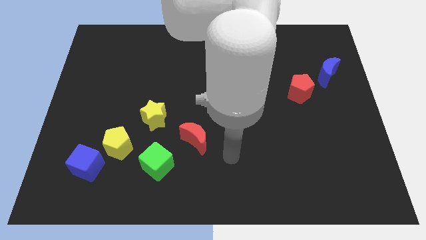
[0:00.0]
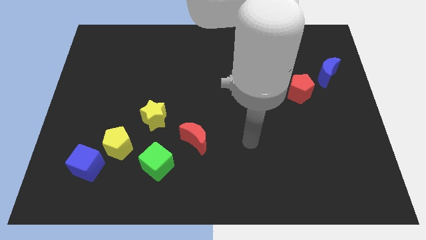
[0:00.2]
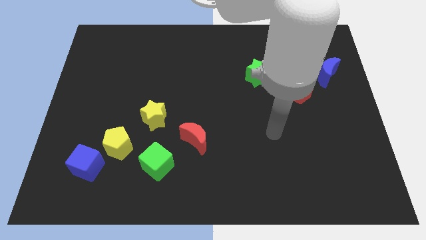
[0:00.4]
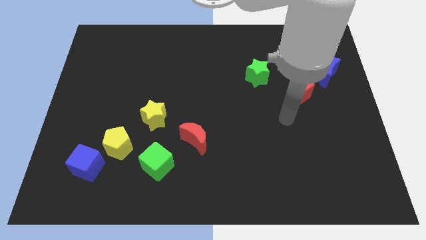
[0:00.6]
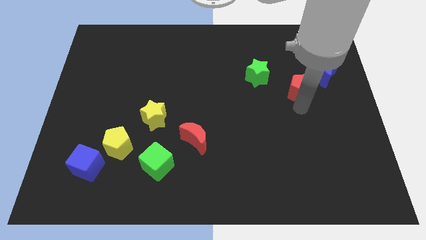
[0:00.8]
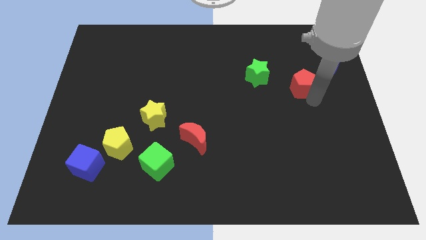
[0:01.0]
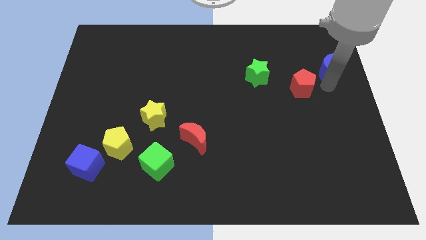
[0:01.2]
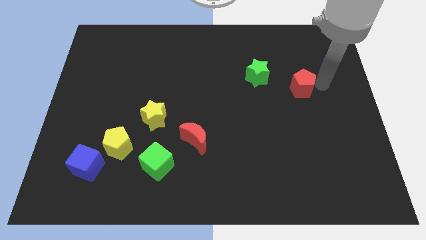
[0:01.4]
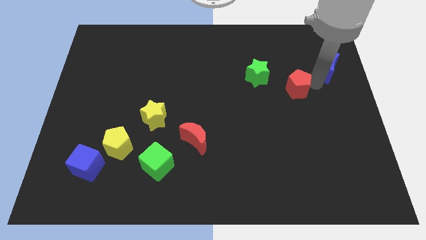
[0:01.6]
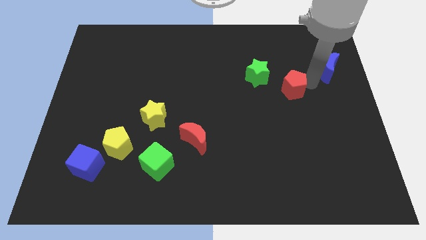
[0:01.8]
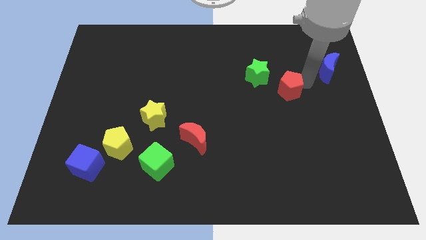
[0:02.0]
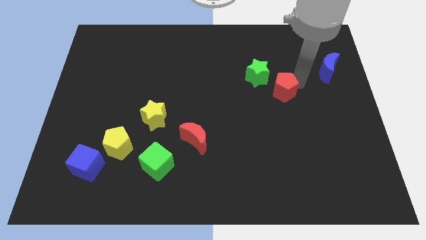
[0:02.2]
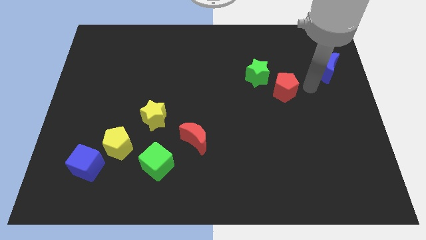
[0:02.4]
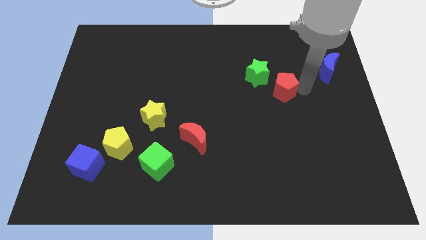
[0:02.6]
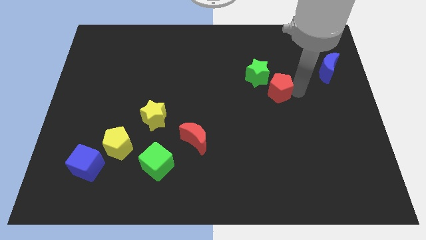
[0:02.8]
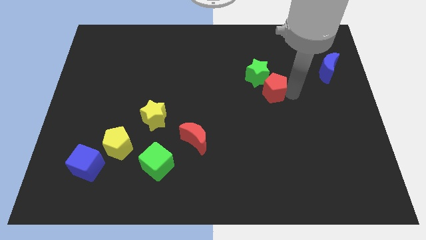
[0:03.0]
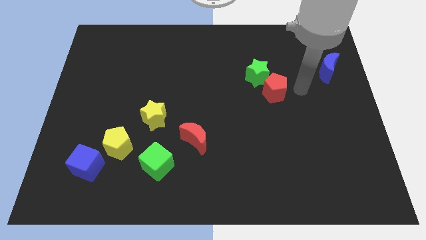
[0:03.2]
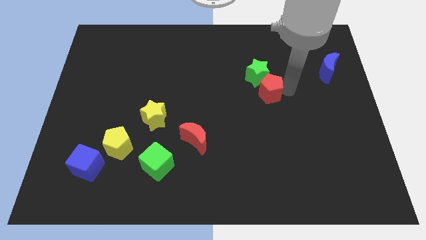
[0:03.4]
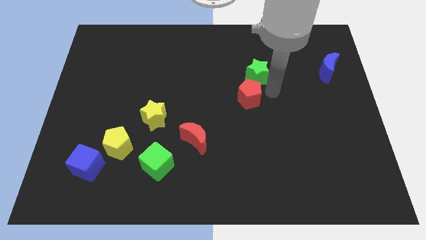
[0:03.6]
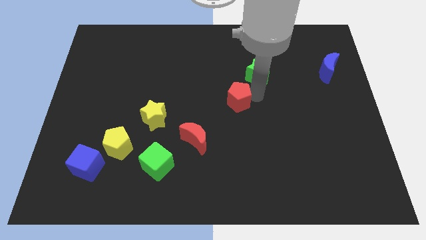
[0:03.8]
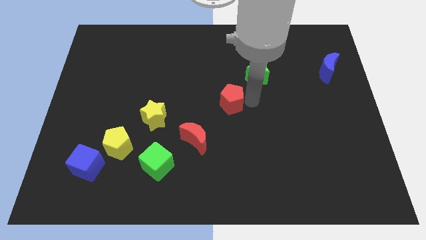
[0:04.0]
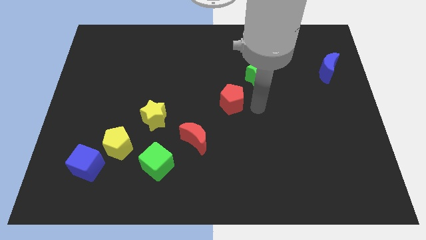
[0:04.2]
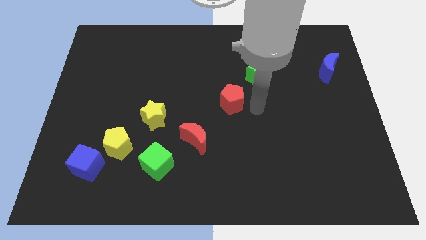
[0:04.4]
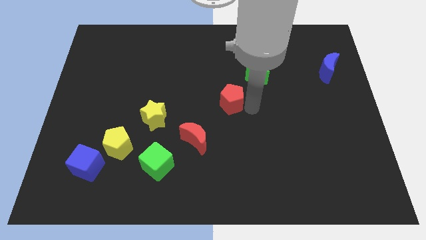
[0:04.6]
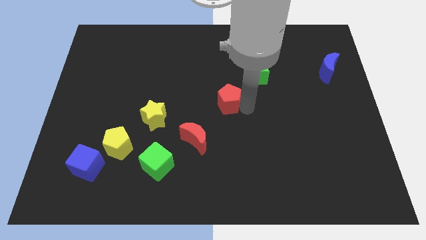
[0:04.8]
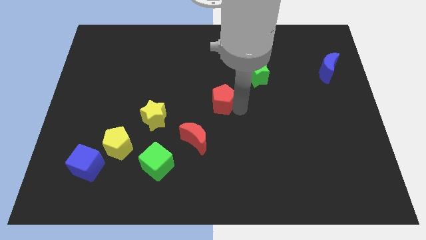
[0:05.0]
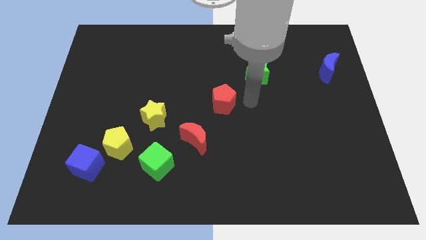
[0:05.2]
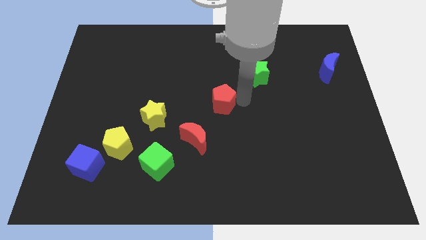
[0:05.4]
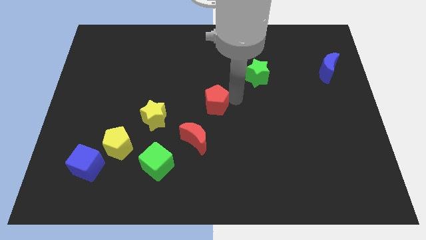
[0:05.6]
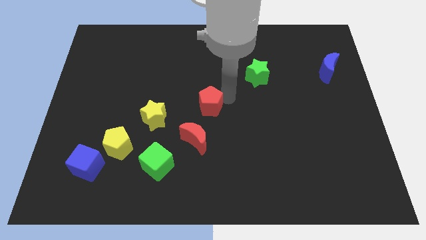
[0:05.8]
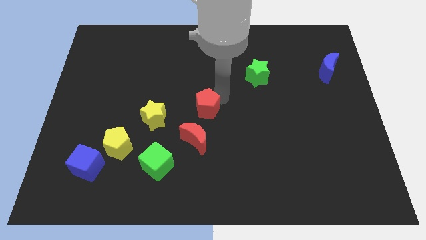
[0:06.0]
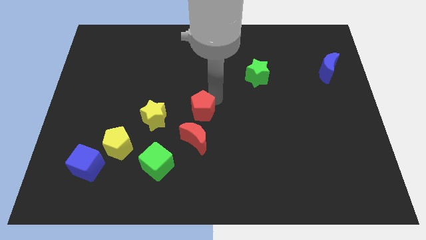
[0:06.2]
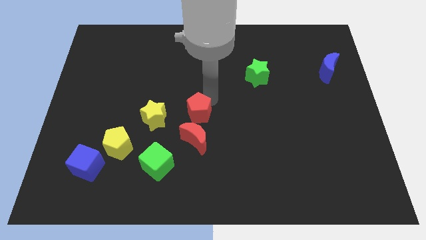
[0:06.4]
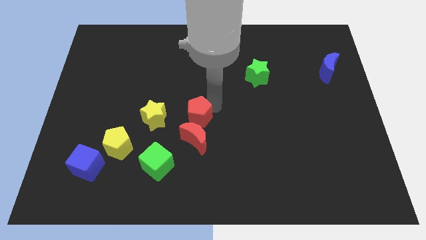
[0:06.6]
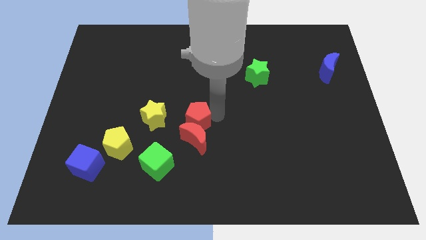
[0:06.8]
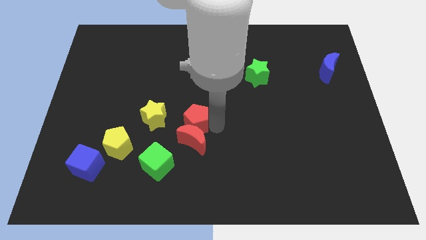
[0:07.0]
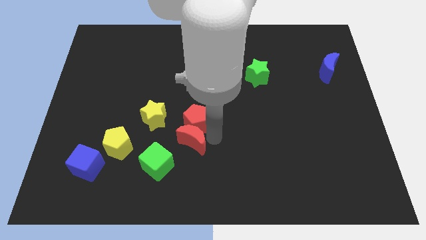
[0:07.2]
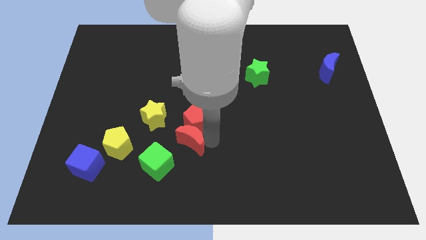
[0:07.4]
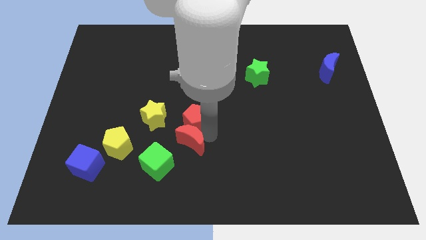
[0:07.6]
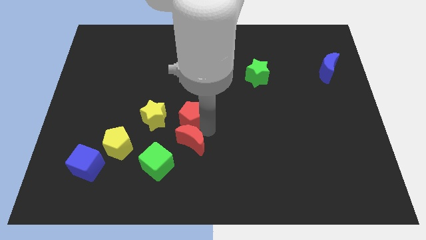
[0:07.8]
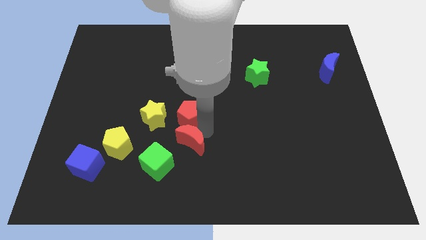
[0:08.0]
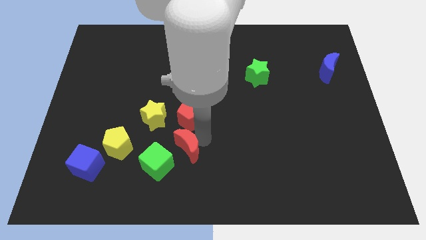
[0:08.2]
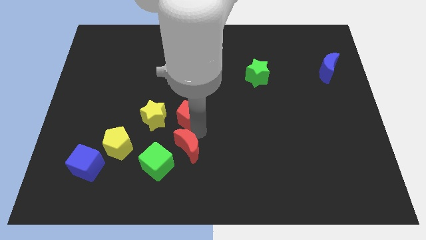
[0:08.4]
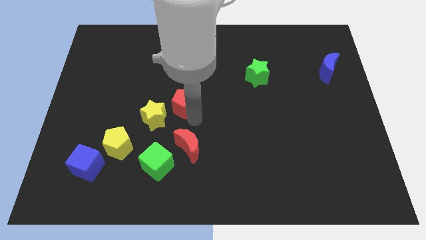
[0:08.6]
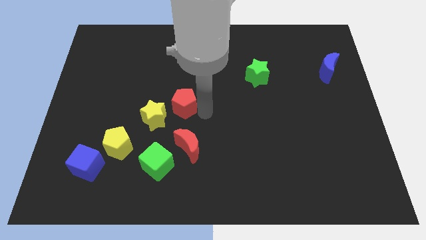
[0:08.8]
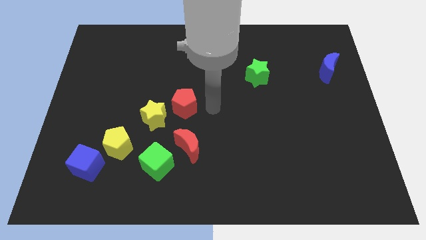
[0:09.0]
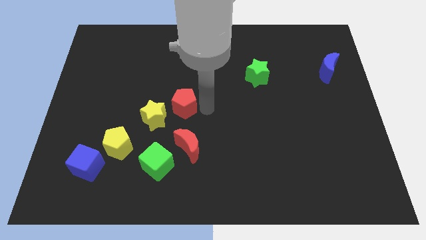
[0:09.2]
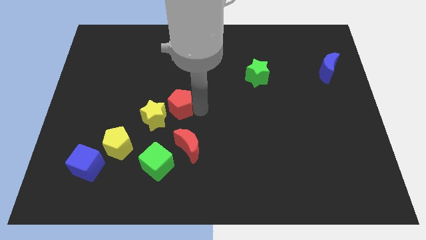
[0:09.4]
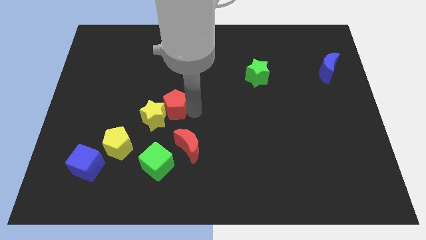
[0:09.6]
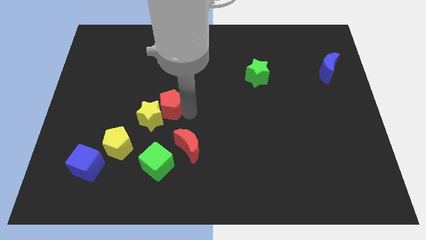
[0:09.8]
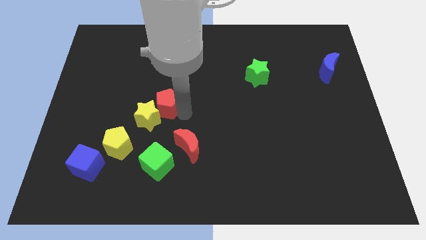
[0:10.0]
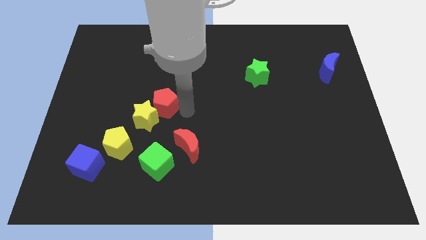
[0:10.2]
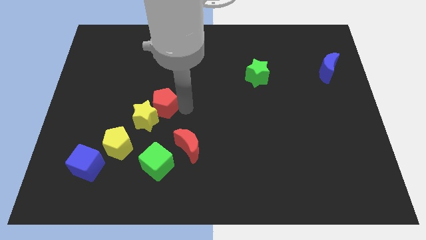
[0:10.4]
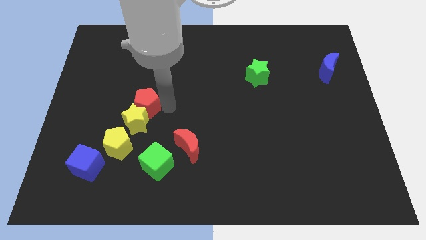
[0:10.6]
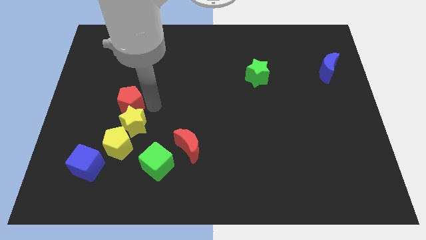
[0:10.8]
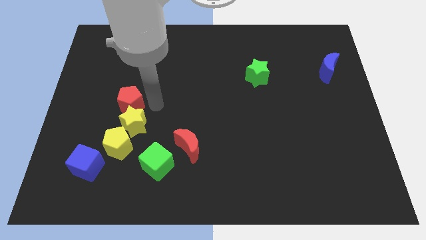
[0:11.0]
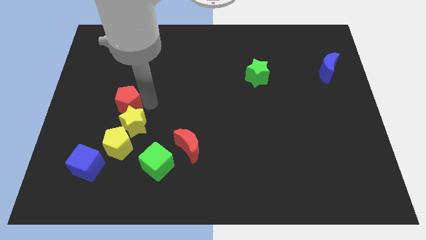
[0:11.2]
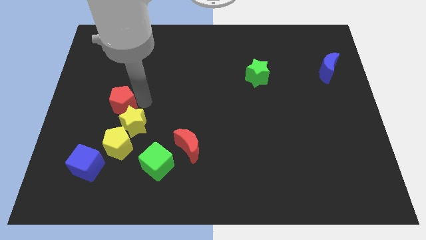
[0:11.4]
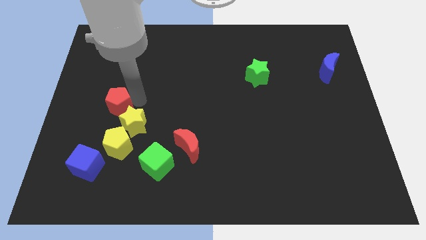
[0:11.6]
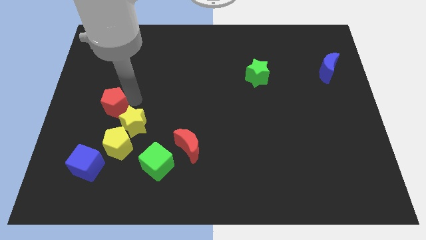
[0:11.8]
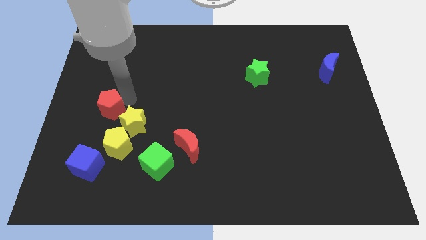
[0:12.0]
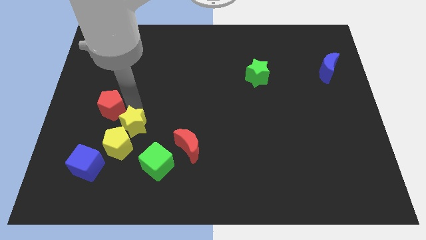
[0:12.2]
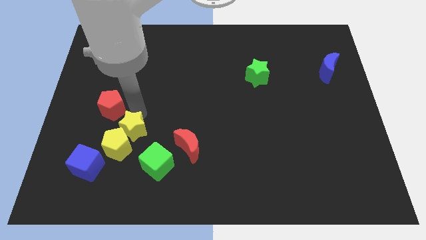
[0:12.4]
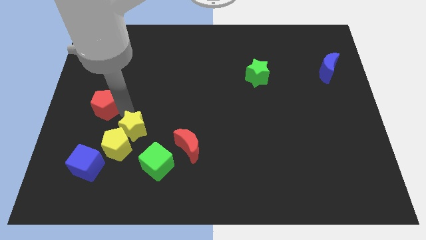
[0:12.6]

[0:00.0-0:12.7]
slide the red pentagon to the left side of the board
